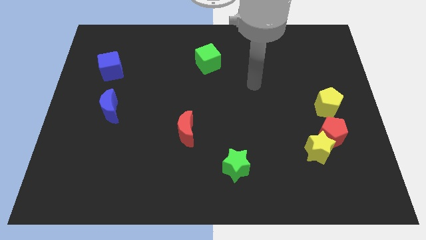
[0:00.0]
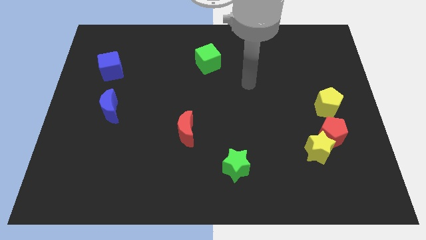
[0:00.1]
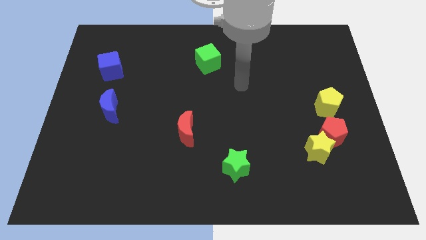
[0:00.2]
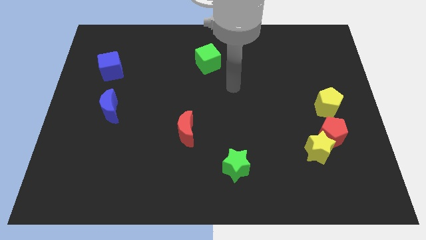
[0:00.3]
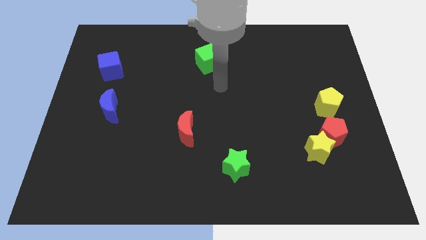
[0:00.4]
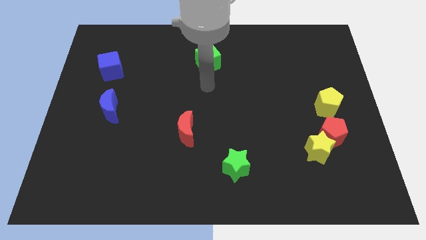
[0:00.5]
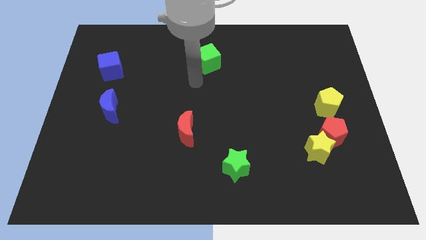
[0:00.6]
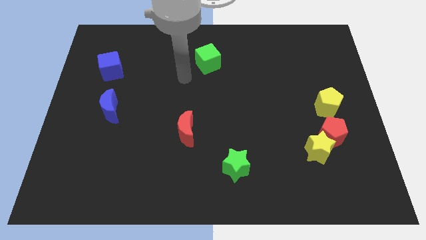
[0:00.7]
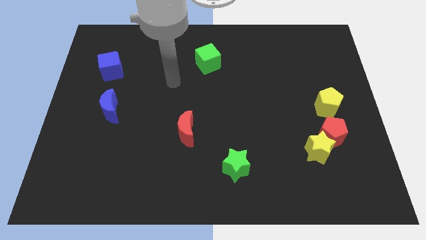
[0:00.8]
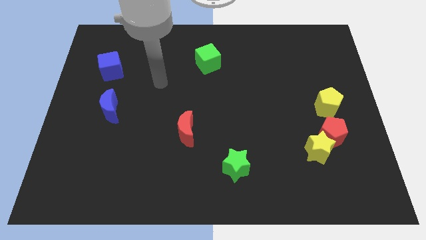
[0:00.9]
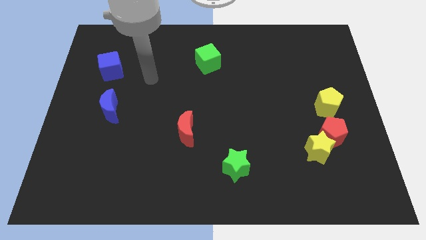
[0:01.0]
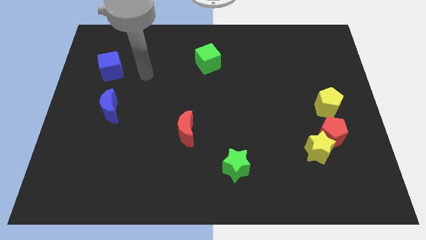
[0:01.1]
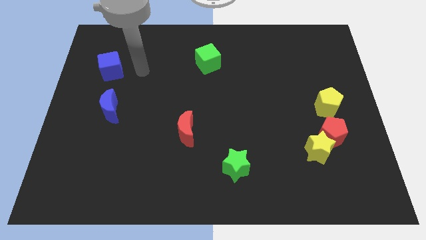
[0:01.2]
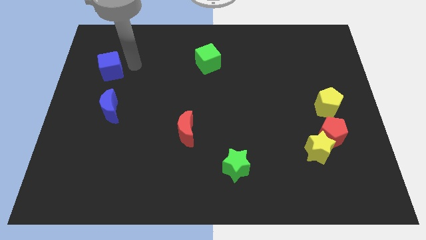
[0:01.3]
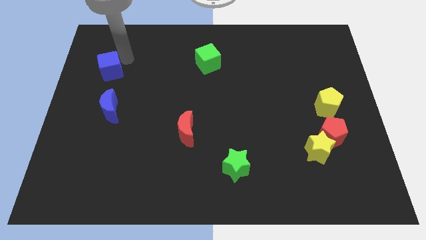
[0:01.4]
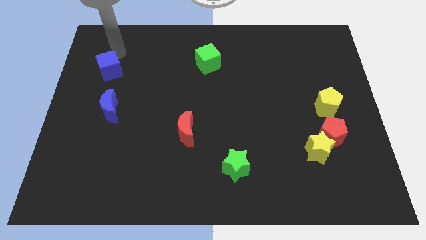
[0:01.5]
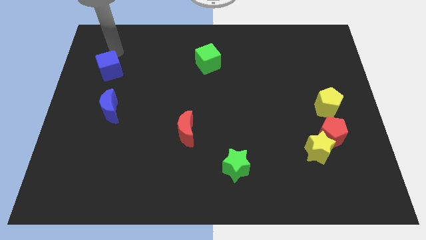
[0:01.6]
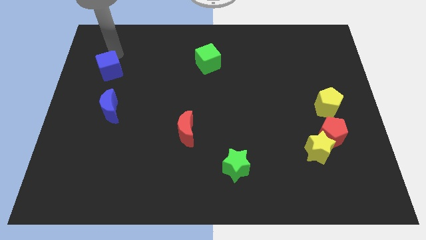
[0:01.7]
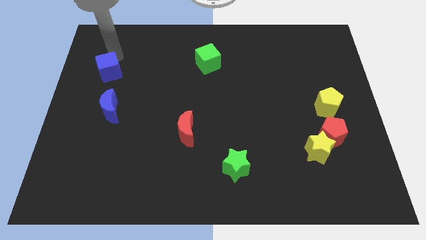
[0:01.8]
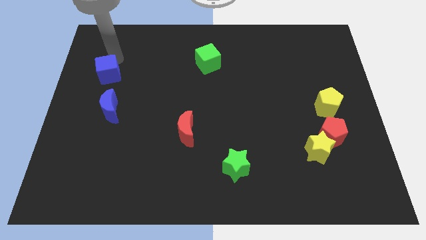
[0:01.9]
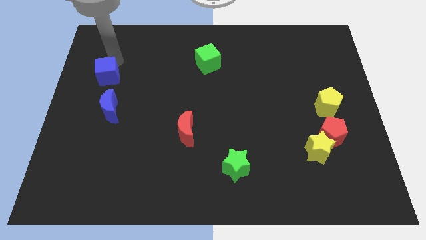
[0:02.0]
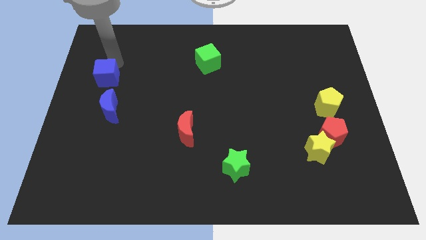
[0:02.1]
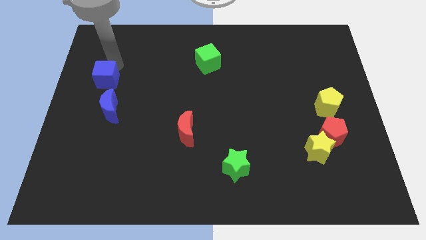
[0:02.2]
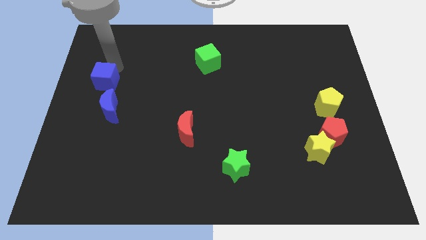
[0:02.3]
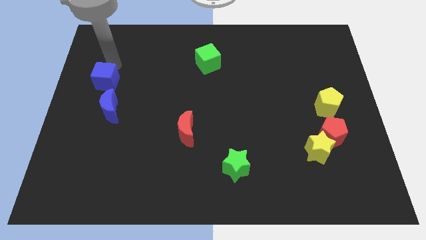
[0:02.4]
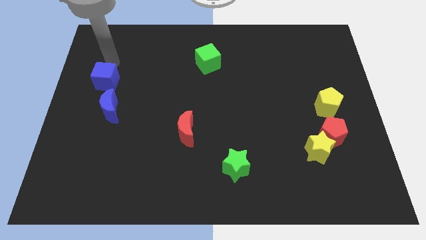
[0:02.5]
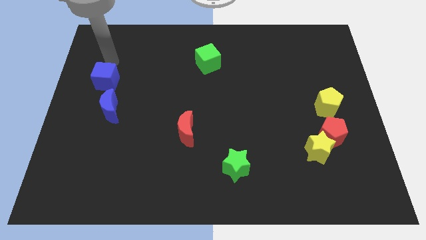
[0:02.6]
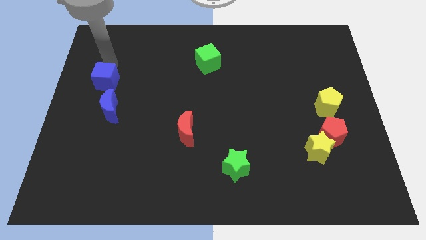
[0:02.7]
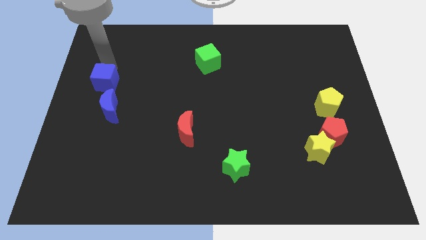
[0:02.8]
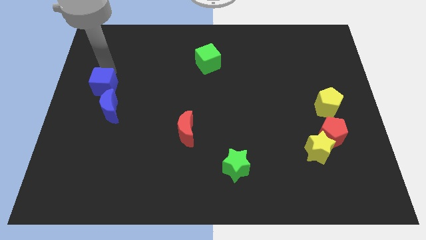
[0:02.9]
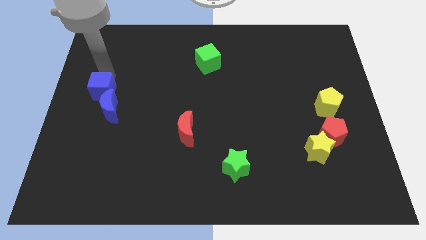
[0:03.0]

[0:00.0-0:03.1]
slide the blue cube down a bit

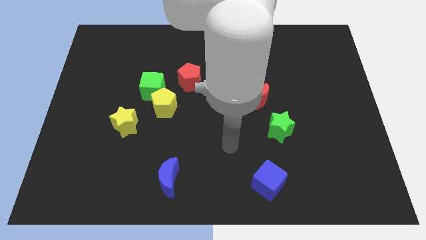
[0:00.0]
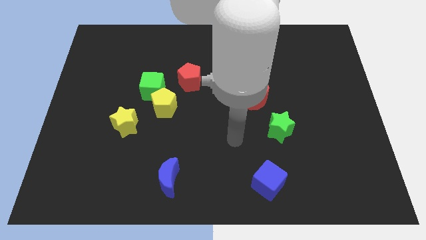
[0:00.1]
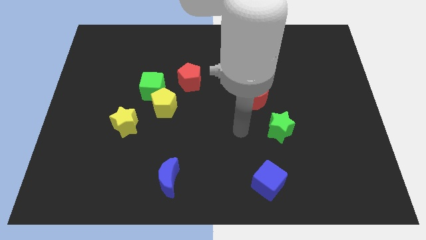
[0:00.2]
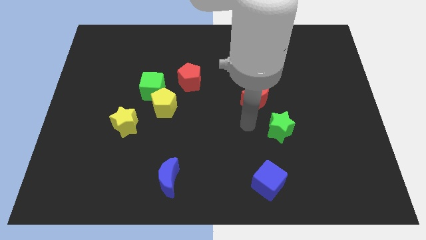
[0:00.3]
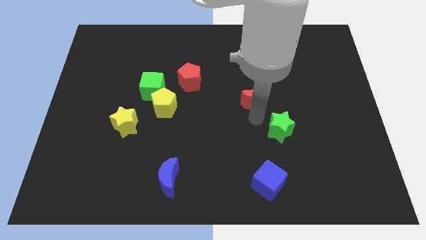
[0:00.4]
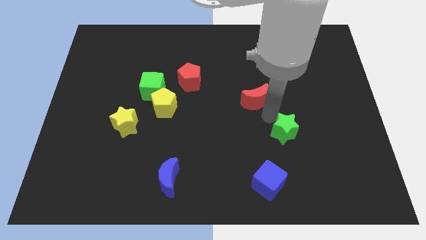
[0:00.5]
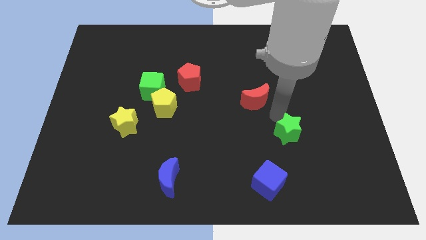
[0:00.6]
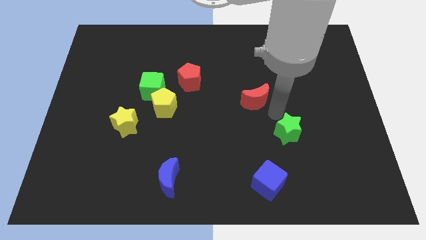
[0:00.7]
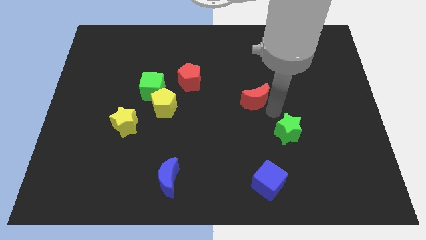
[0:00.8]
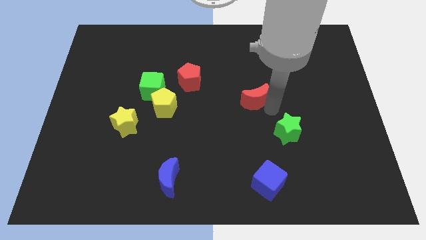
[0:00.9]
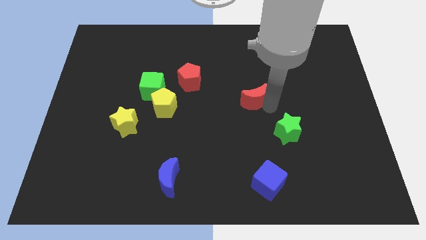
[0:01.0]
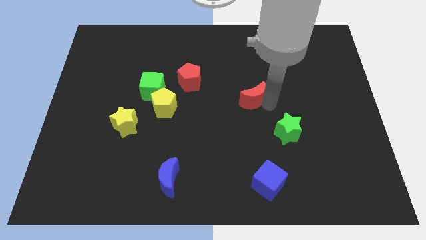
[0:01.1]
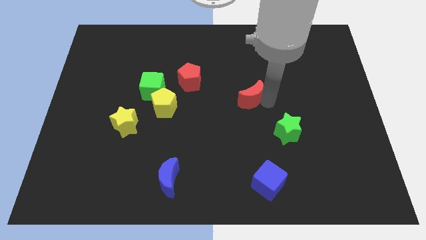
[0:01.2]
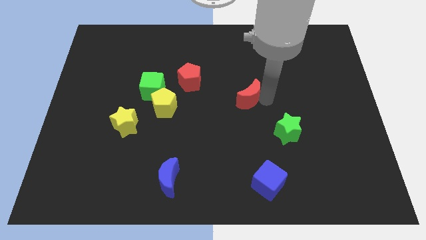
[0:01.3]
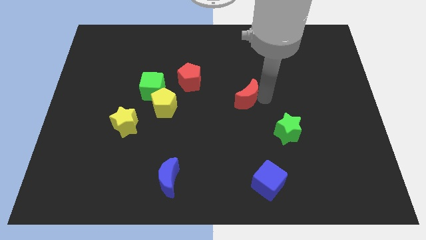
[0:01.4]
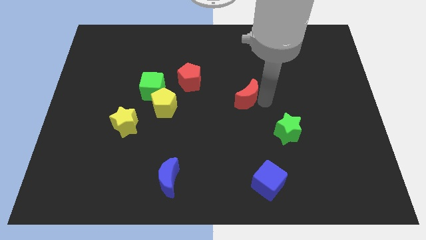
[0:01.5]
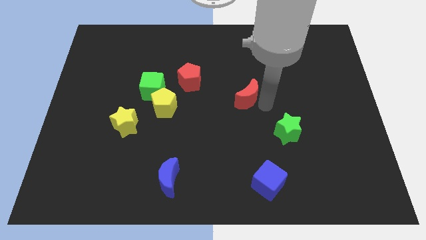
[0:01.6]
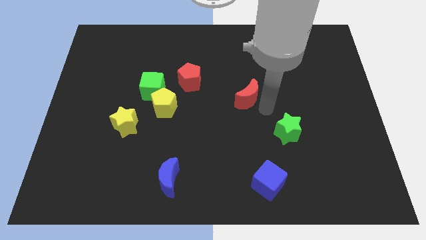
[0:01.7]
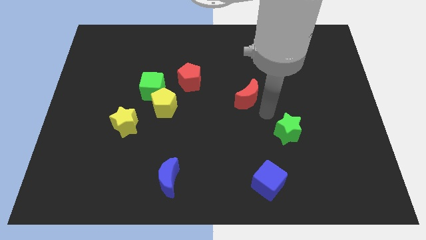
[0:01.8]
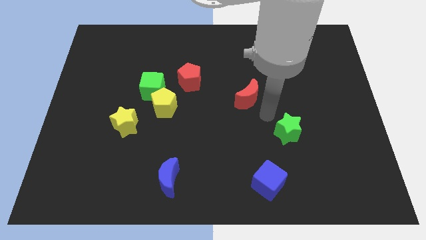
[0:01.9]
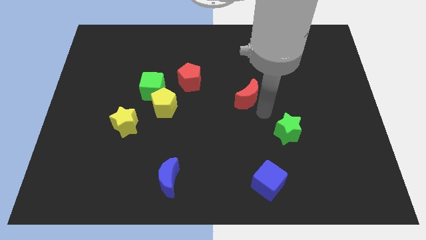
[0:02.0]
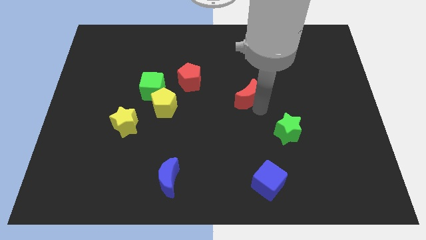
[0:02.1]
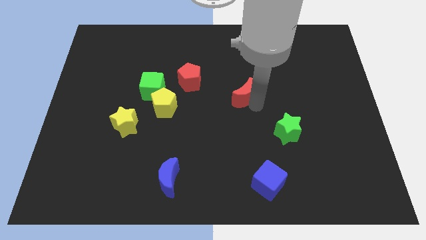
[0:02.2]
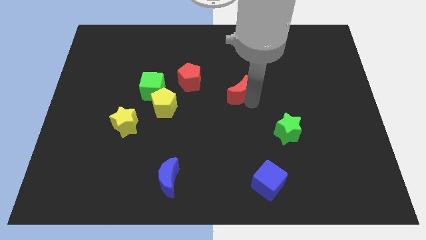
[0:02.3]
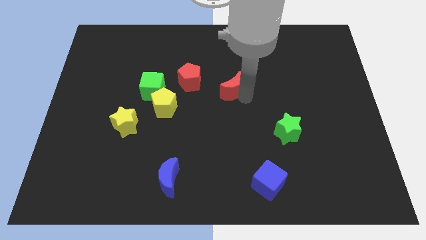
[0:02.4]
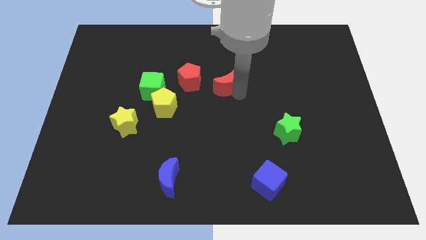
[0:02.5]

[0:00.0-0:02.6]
slightly slide the red moon up and left

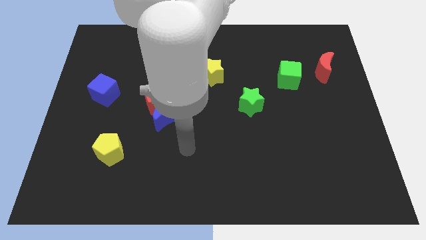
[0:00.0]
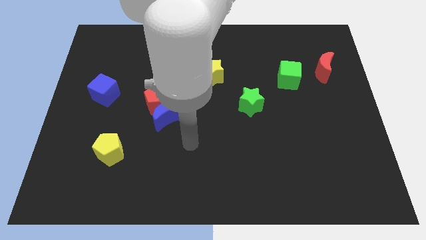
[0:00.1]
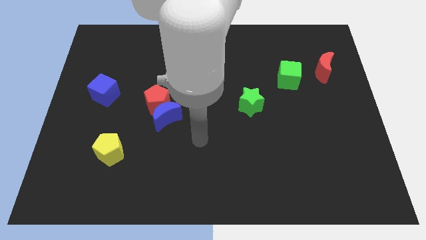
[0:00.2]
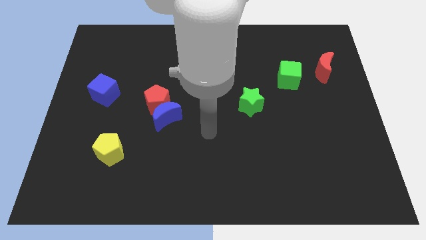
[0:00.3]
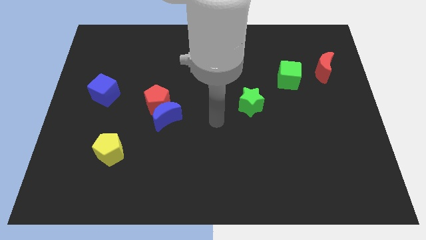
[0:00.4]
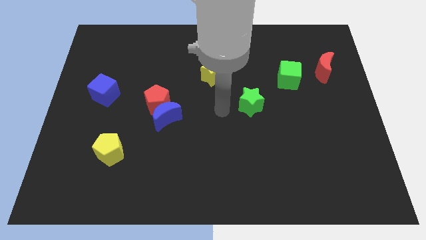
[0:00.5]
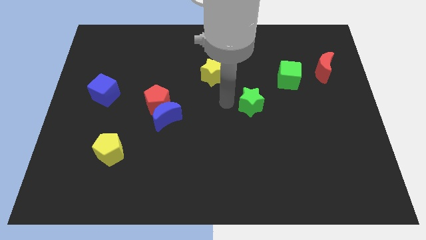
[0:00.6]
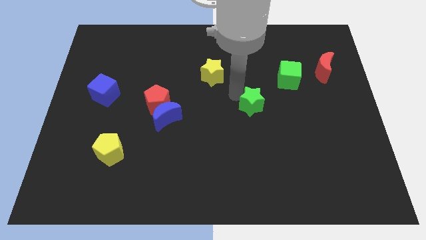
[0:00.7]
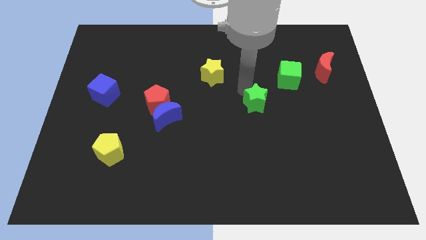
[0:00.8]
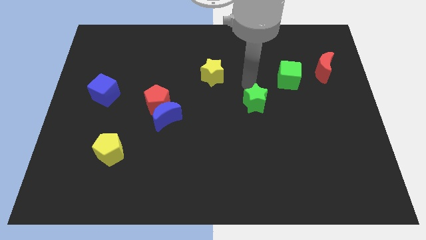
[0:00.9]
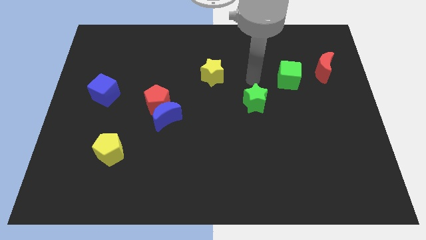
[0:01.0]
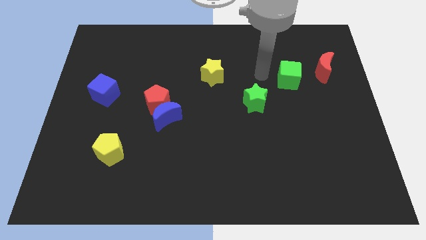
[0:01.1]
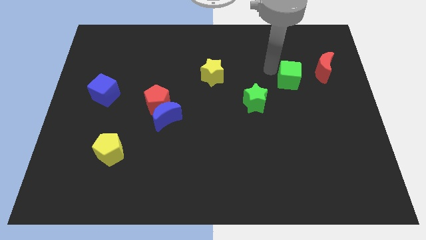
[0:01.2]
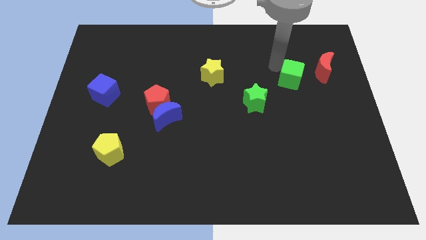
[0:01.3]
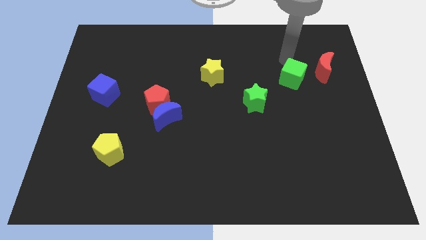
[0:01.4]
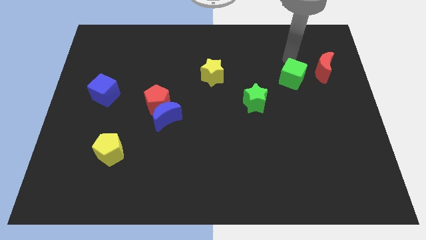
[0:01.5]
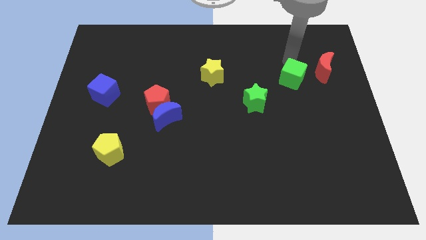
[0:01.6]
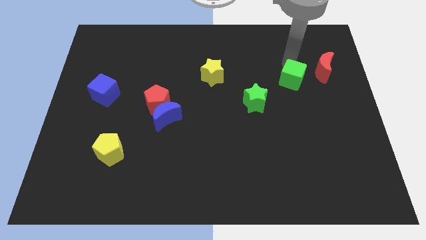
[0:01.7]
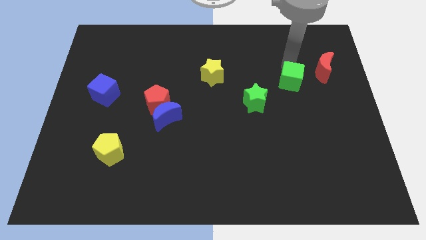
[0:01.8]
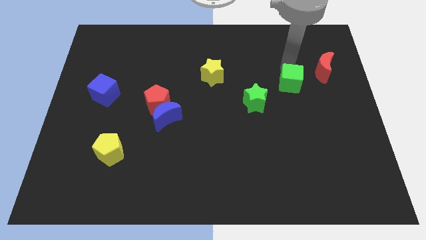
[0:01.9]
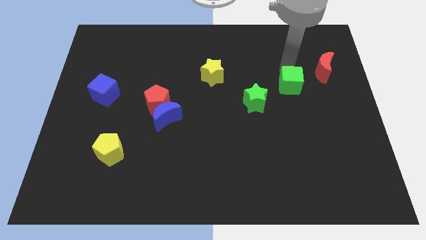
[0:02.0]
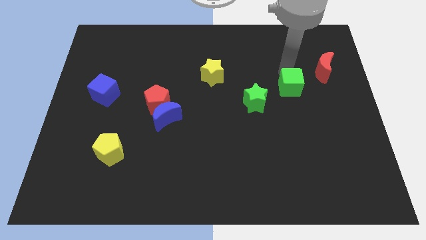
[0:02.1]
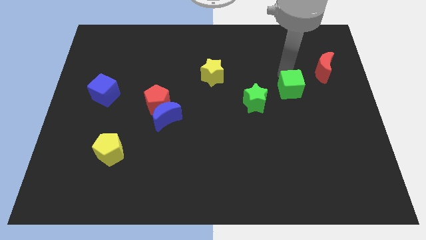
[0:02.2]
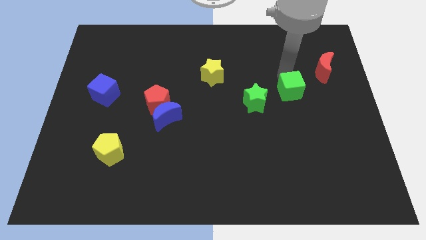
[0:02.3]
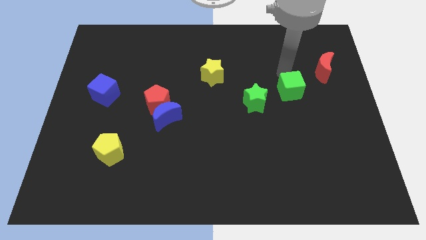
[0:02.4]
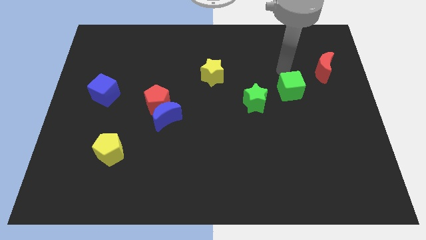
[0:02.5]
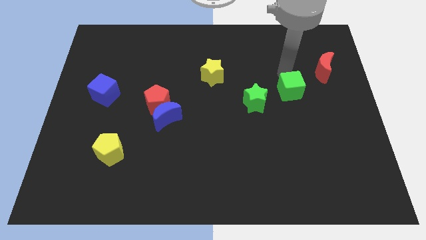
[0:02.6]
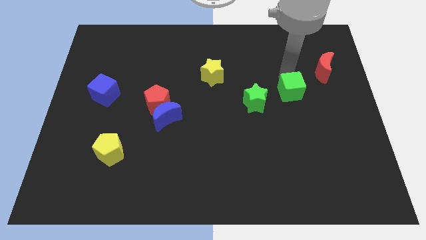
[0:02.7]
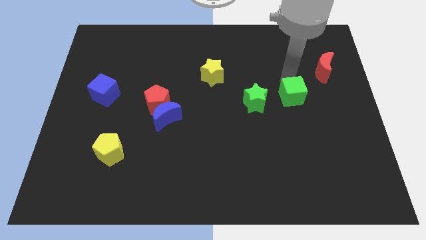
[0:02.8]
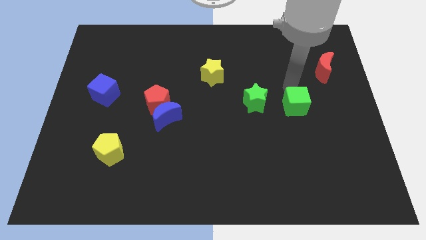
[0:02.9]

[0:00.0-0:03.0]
slightly push the green cube down
